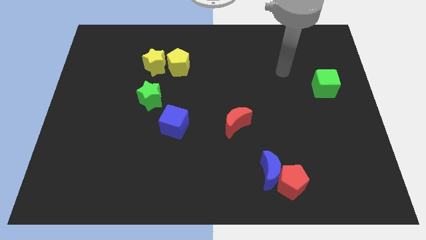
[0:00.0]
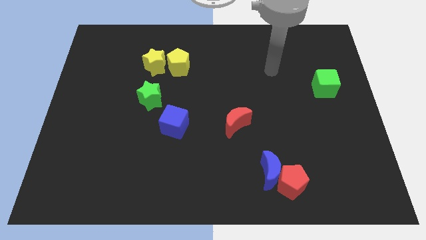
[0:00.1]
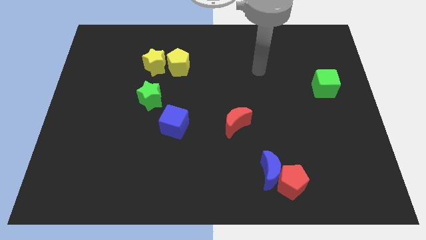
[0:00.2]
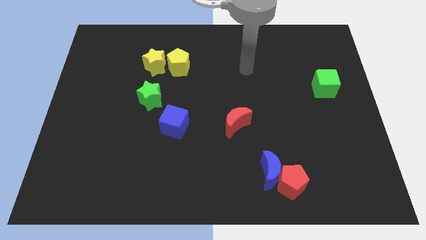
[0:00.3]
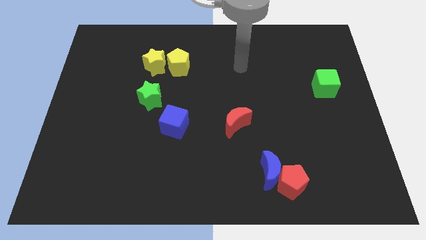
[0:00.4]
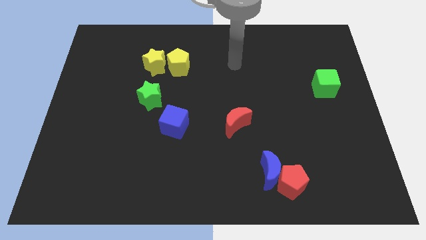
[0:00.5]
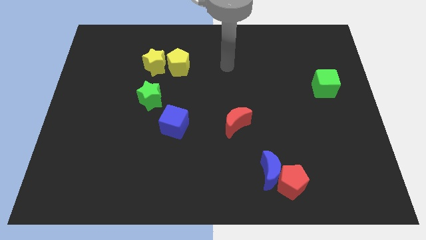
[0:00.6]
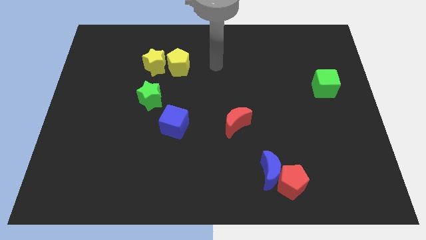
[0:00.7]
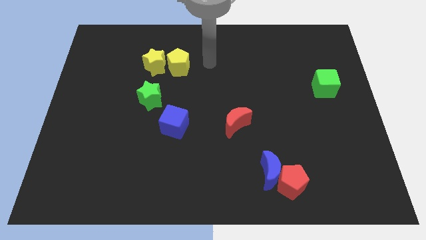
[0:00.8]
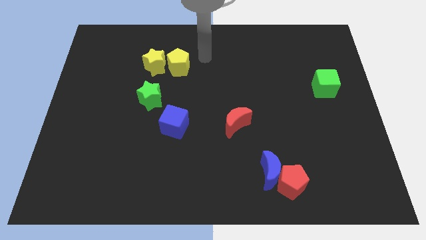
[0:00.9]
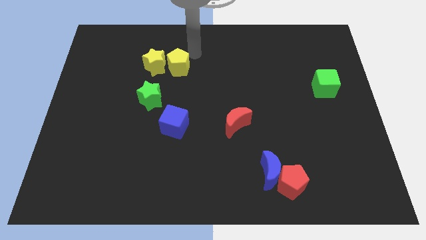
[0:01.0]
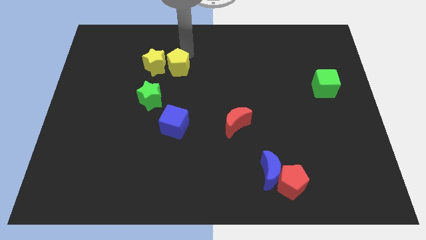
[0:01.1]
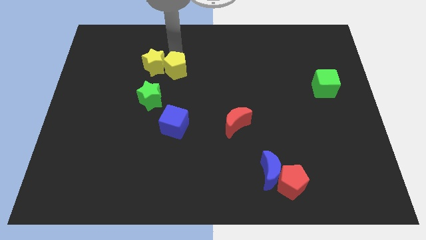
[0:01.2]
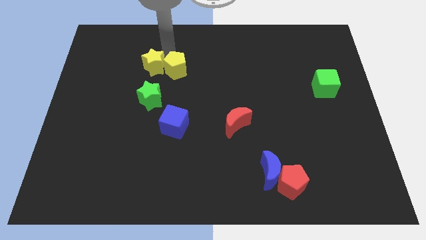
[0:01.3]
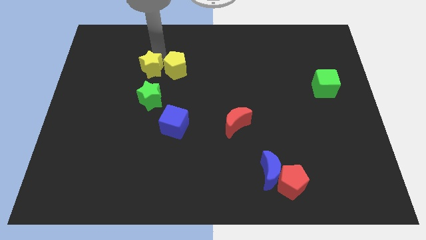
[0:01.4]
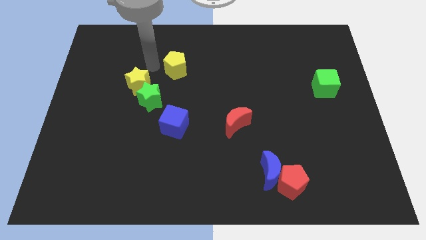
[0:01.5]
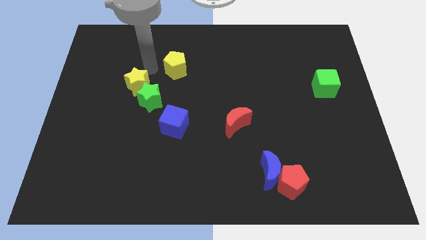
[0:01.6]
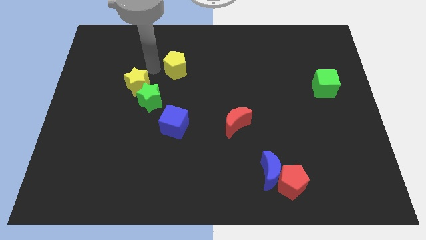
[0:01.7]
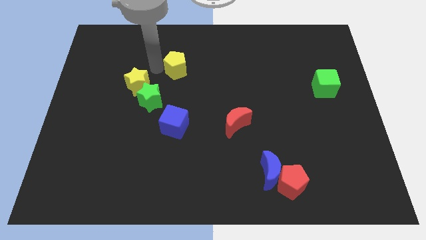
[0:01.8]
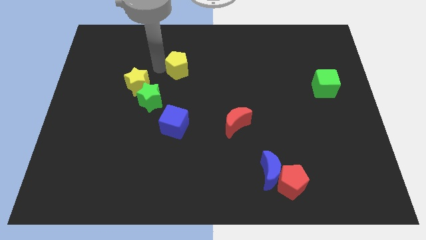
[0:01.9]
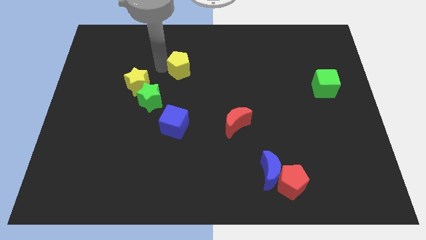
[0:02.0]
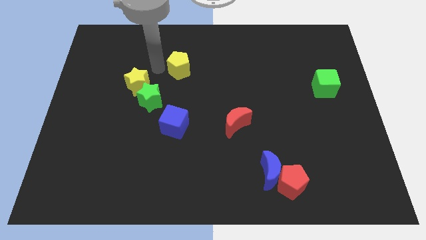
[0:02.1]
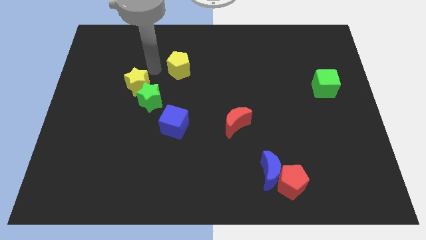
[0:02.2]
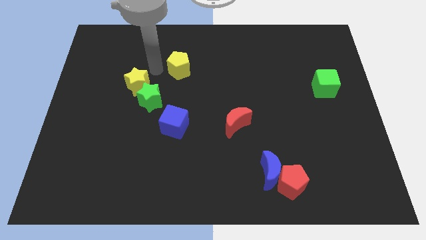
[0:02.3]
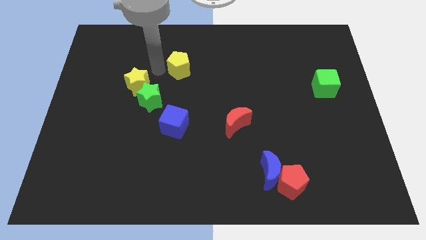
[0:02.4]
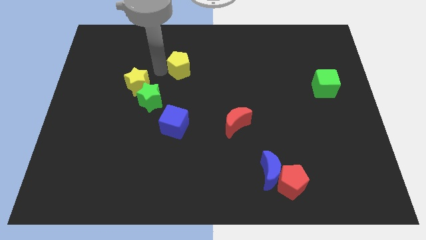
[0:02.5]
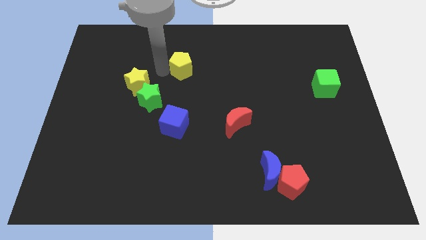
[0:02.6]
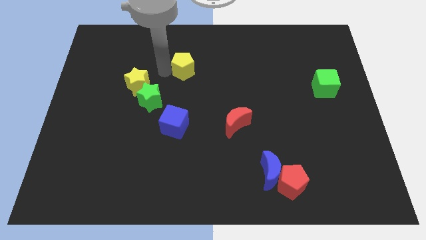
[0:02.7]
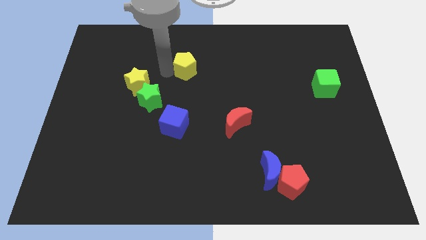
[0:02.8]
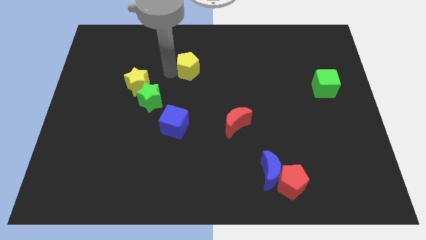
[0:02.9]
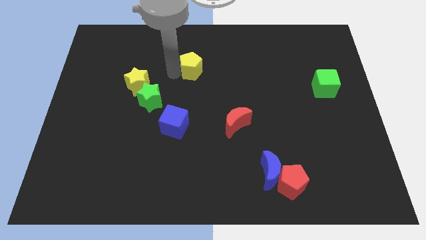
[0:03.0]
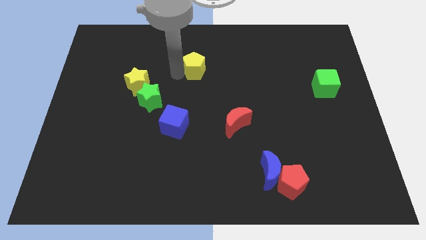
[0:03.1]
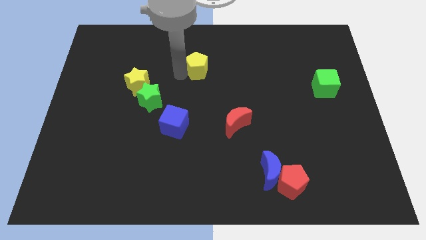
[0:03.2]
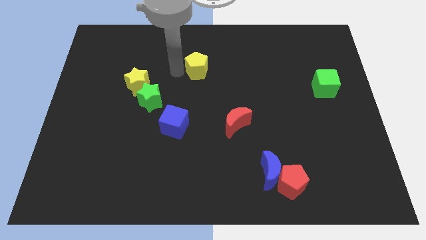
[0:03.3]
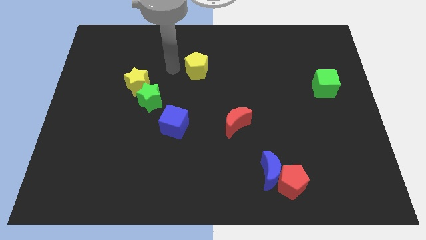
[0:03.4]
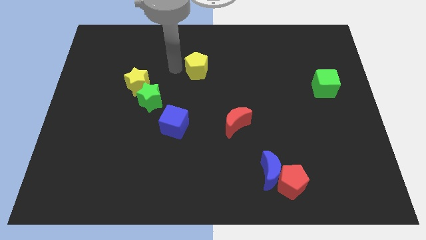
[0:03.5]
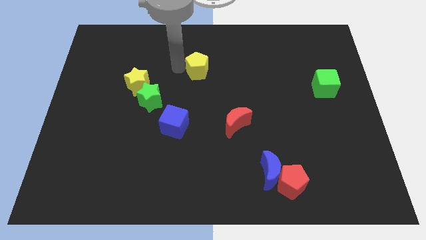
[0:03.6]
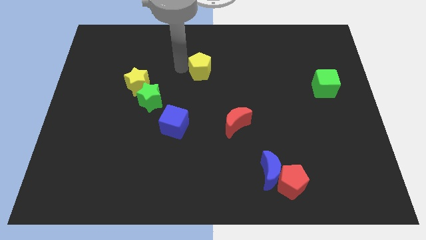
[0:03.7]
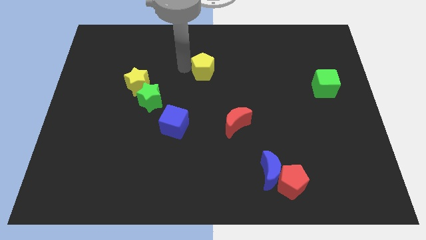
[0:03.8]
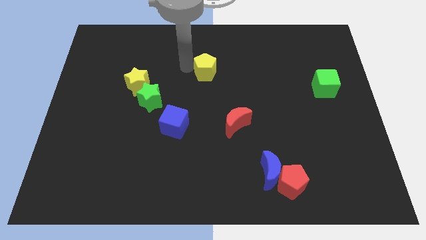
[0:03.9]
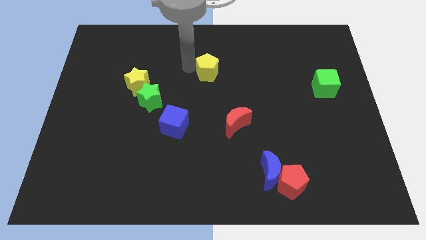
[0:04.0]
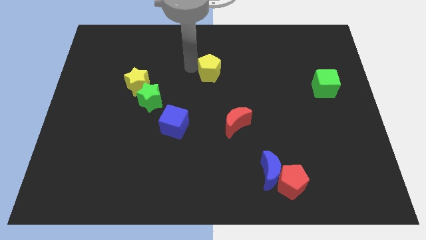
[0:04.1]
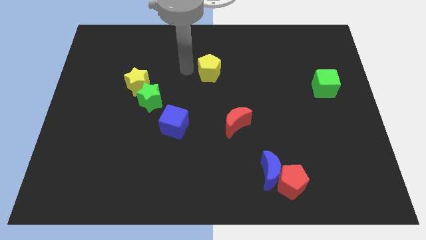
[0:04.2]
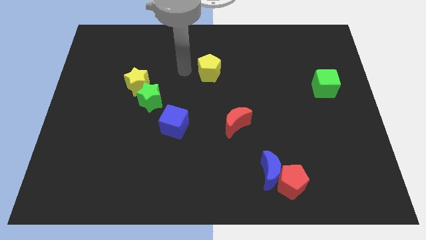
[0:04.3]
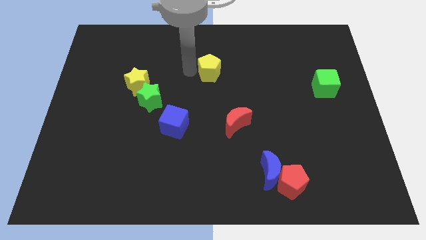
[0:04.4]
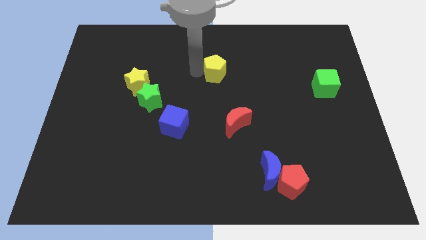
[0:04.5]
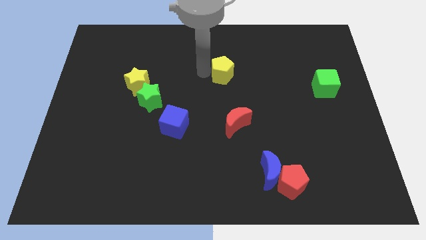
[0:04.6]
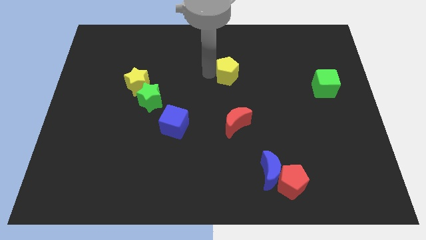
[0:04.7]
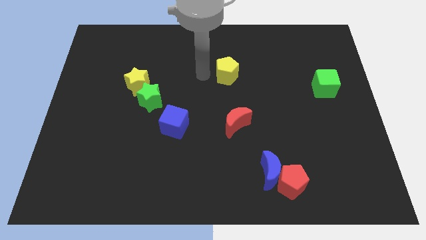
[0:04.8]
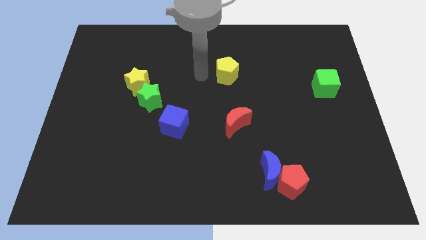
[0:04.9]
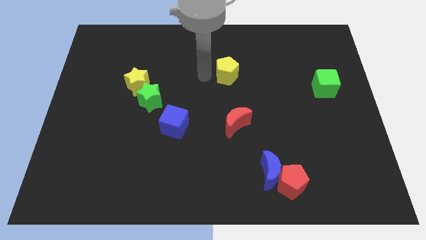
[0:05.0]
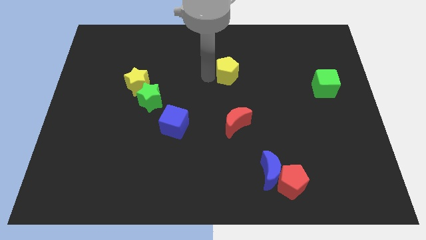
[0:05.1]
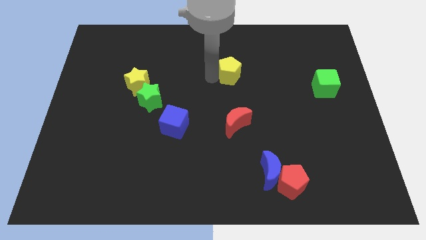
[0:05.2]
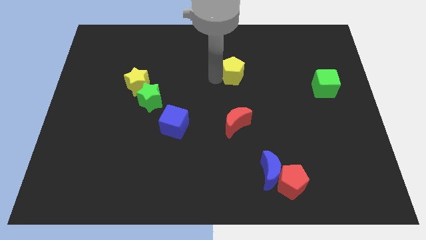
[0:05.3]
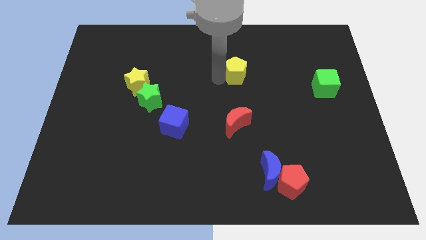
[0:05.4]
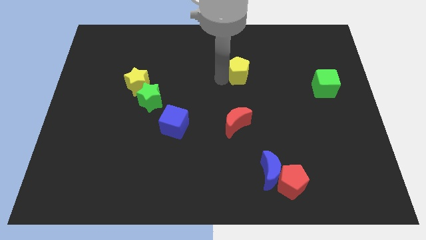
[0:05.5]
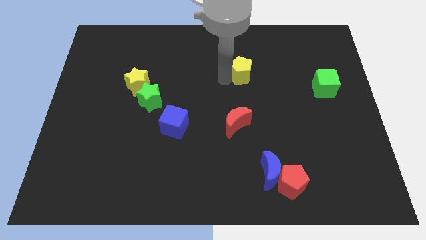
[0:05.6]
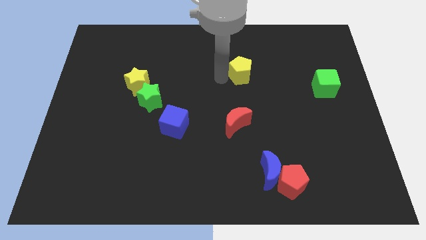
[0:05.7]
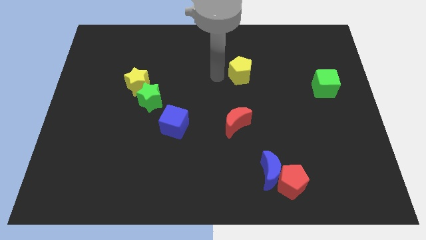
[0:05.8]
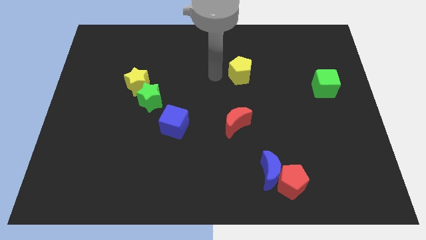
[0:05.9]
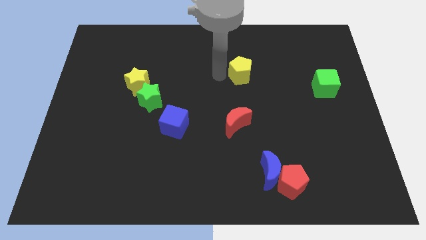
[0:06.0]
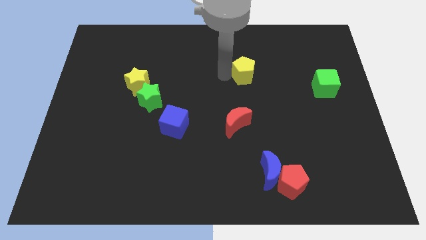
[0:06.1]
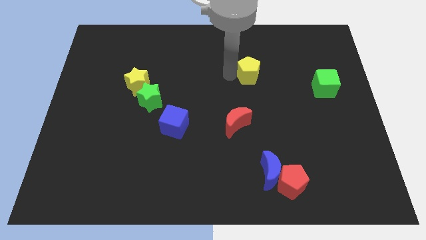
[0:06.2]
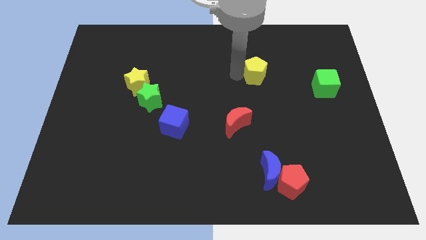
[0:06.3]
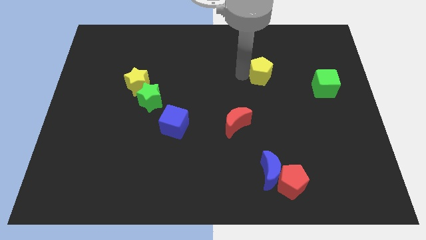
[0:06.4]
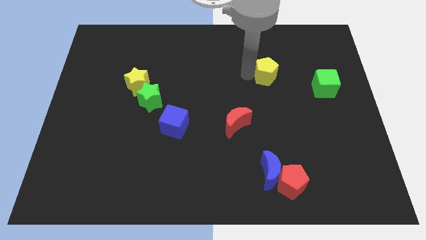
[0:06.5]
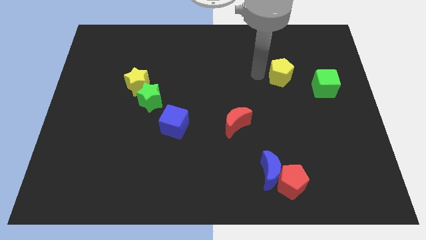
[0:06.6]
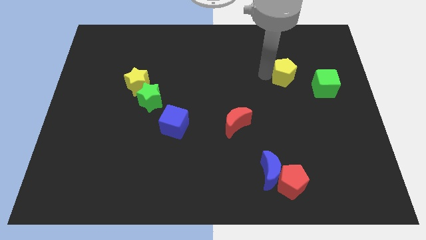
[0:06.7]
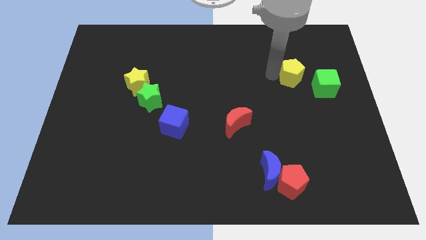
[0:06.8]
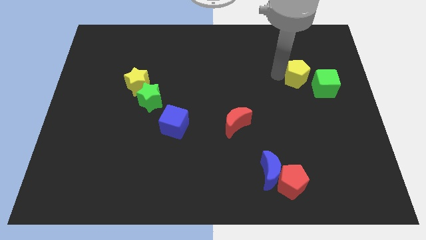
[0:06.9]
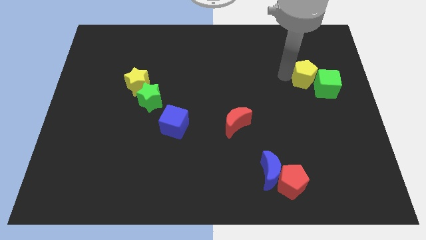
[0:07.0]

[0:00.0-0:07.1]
push the yellow pentagon close to the green cube

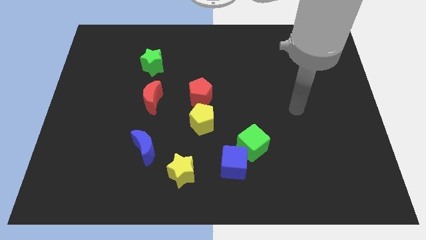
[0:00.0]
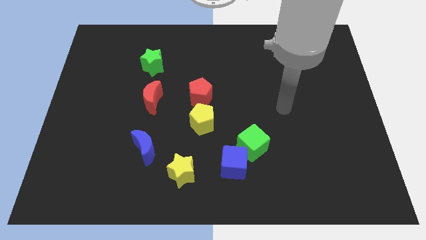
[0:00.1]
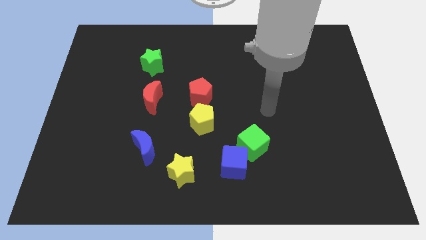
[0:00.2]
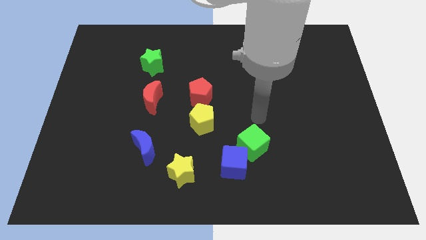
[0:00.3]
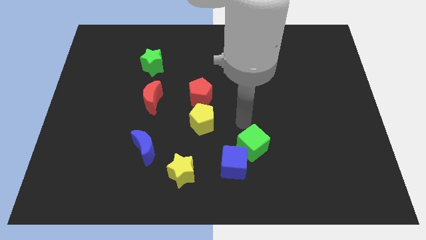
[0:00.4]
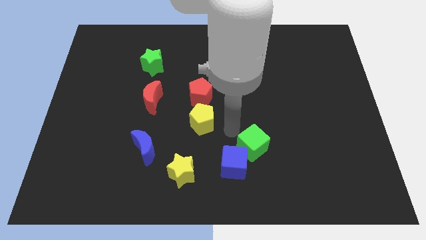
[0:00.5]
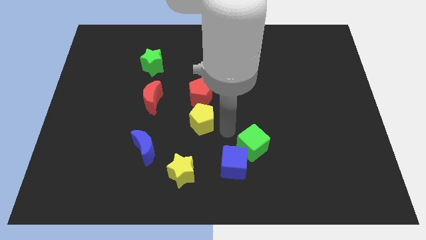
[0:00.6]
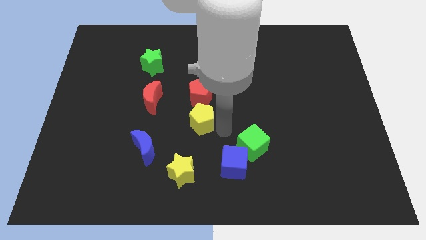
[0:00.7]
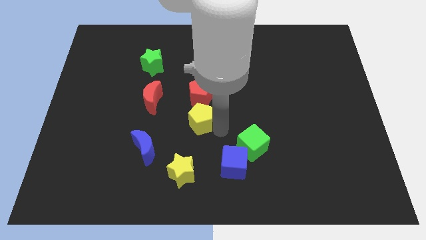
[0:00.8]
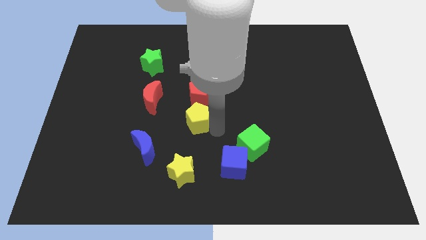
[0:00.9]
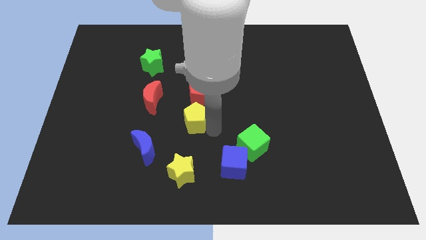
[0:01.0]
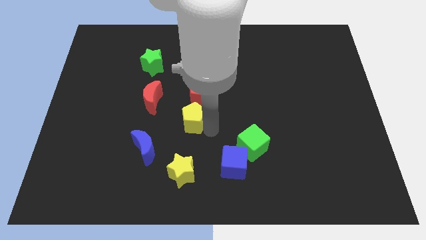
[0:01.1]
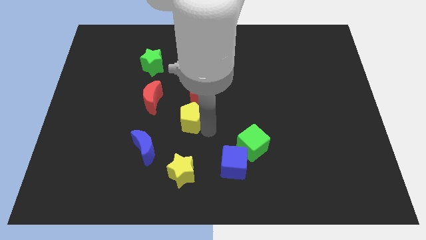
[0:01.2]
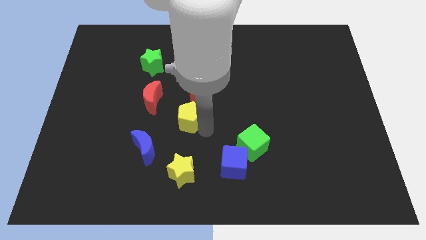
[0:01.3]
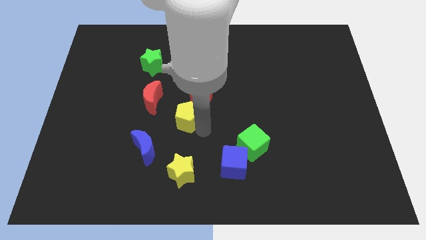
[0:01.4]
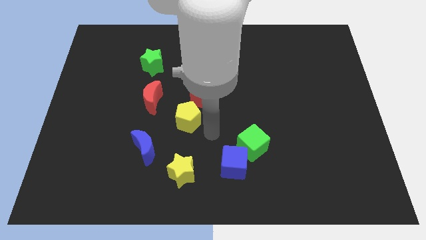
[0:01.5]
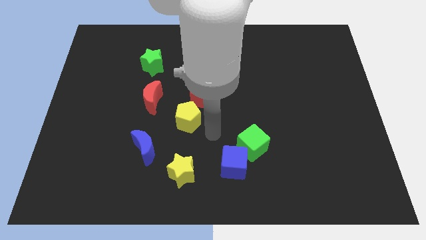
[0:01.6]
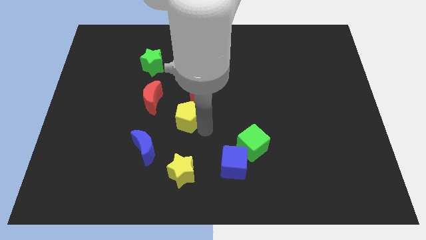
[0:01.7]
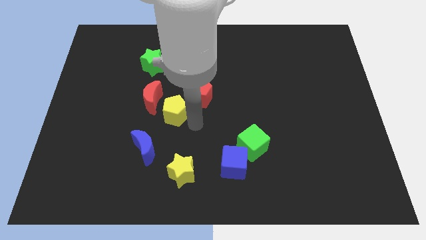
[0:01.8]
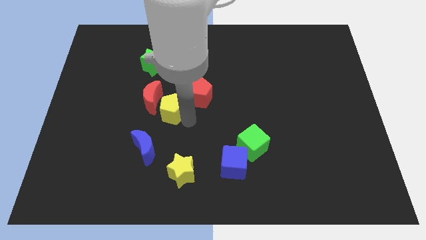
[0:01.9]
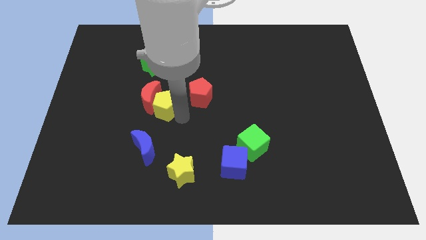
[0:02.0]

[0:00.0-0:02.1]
put the yellow pentagon next to the red moon
